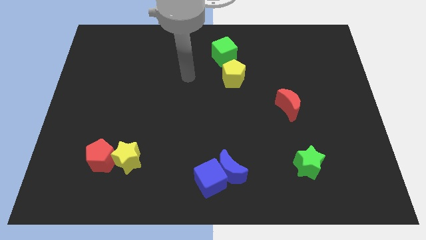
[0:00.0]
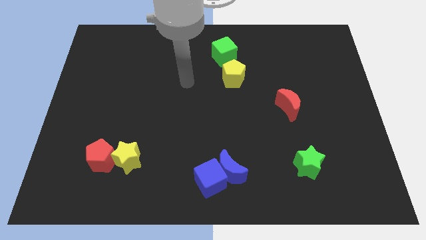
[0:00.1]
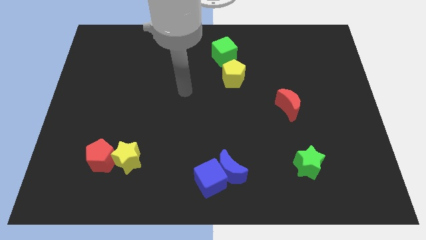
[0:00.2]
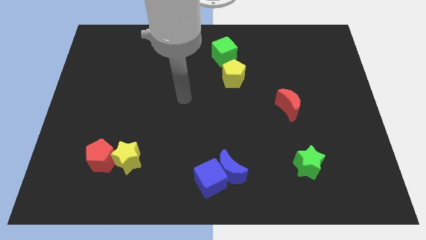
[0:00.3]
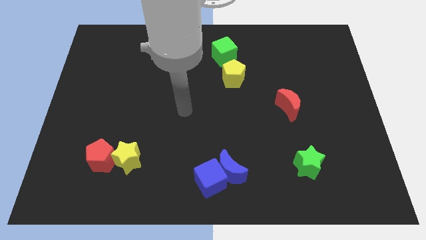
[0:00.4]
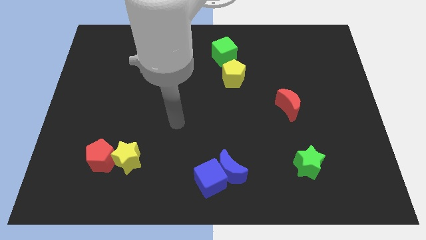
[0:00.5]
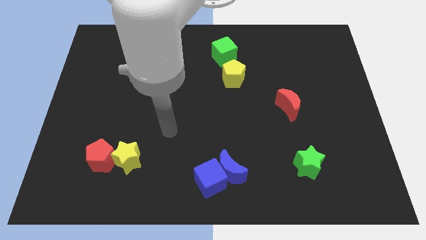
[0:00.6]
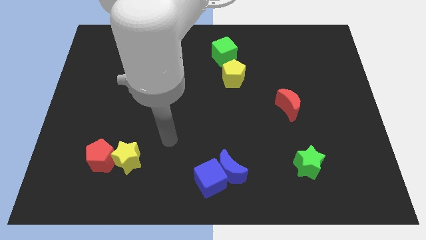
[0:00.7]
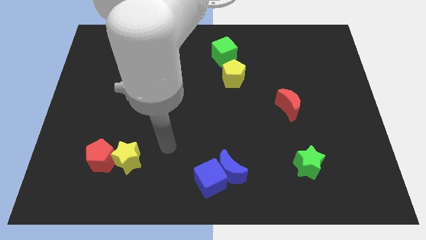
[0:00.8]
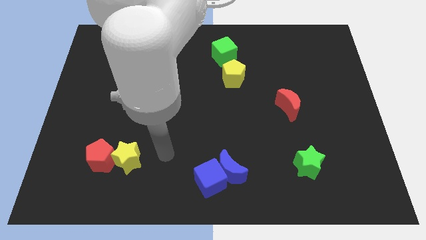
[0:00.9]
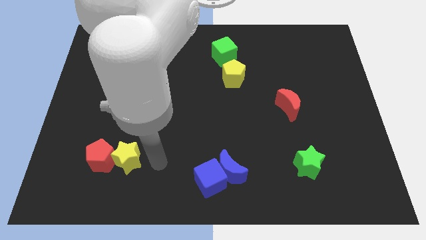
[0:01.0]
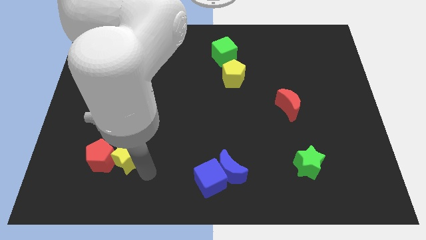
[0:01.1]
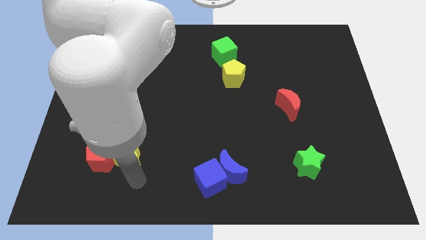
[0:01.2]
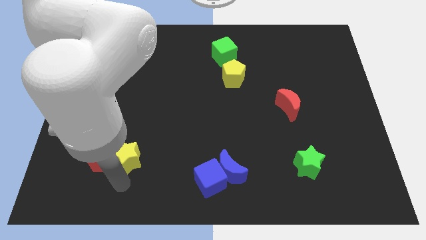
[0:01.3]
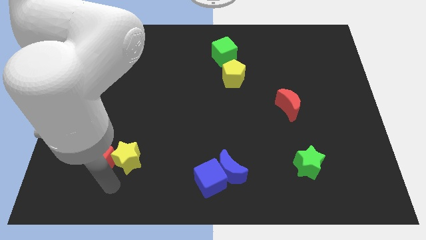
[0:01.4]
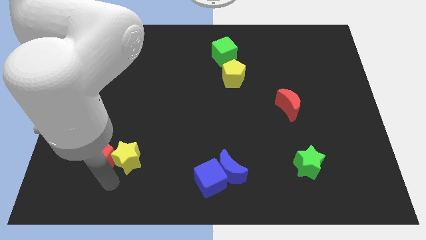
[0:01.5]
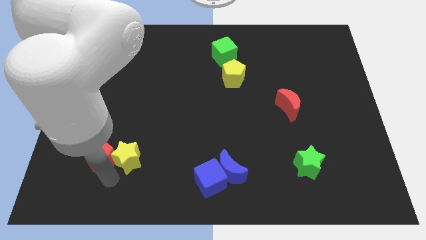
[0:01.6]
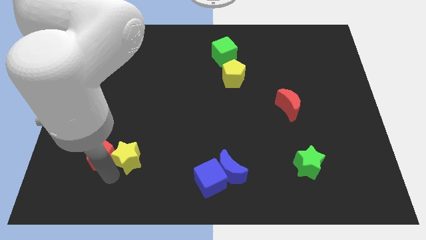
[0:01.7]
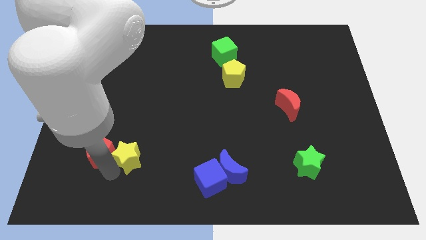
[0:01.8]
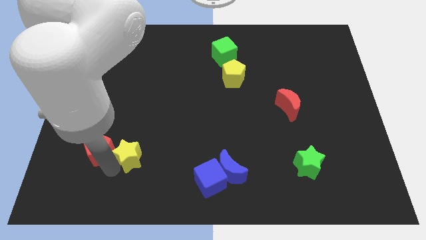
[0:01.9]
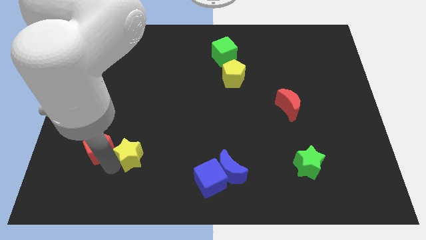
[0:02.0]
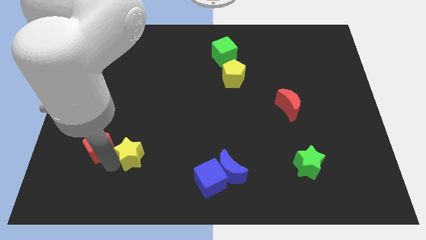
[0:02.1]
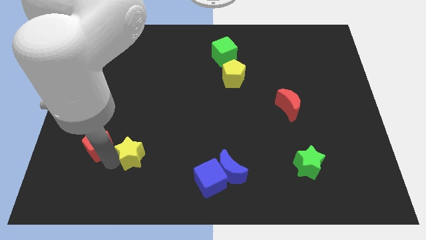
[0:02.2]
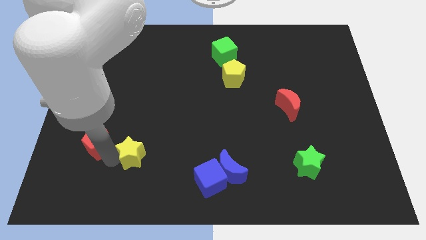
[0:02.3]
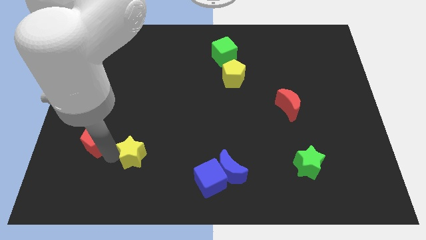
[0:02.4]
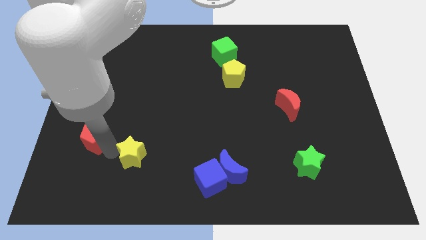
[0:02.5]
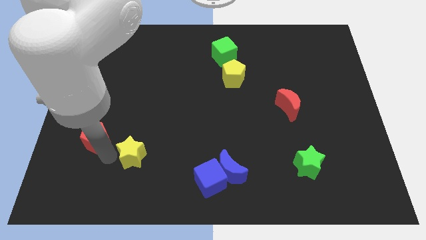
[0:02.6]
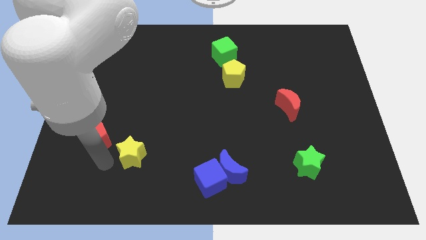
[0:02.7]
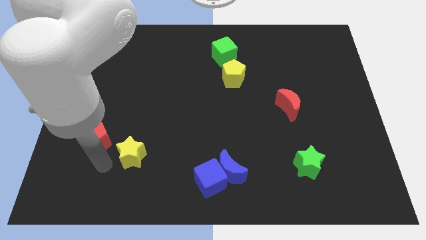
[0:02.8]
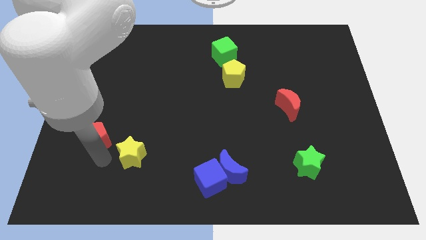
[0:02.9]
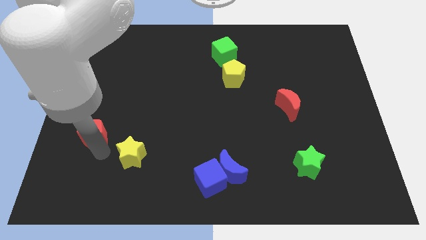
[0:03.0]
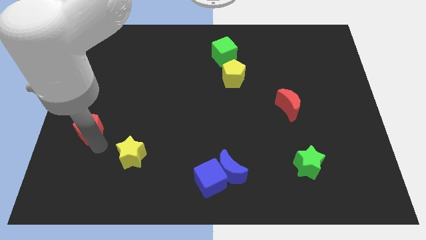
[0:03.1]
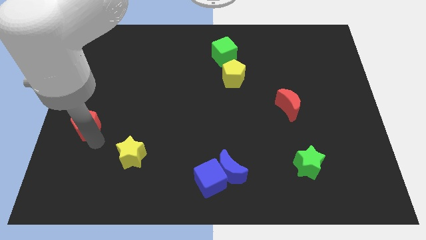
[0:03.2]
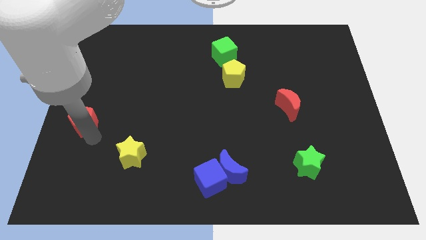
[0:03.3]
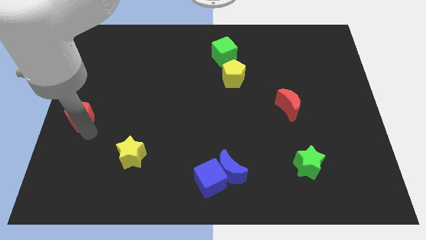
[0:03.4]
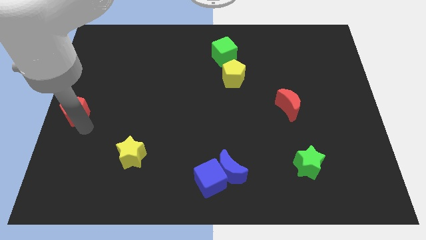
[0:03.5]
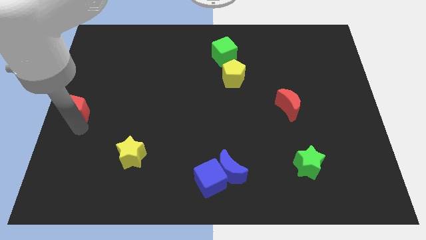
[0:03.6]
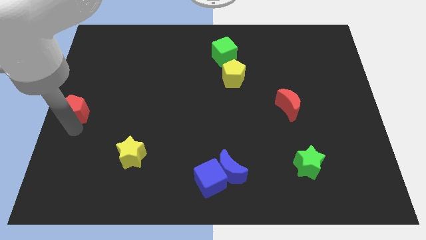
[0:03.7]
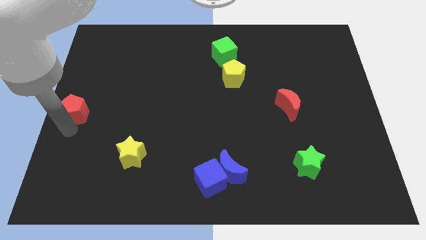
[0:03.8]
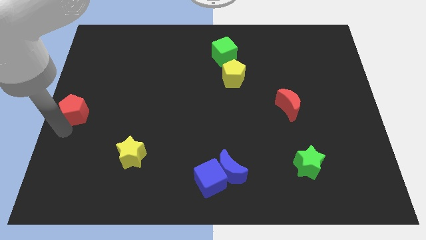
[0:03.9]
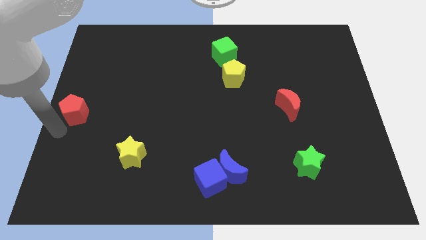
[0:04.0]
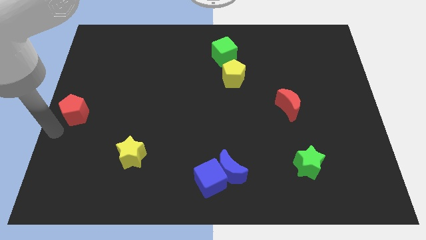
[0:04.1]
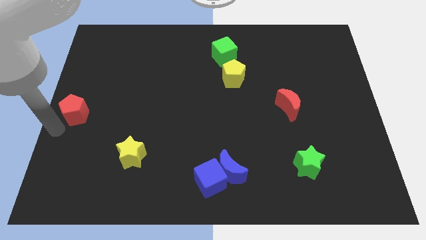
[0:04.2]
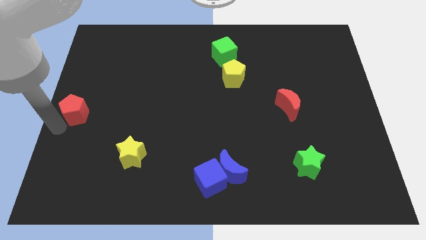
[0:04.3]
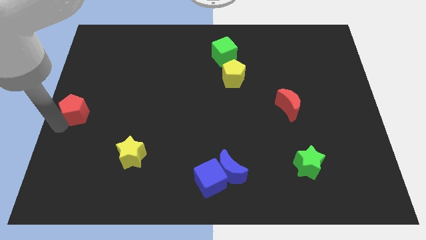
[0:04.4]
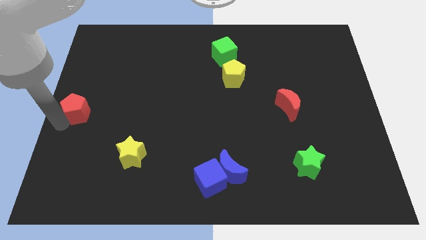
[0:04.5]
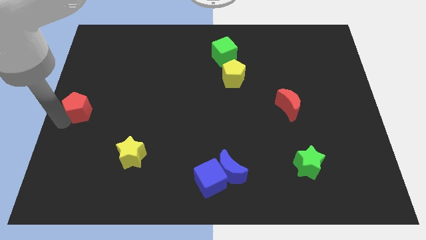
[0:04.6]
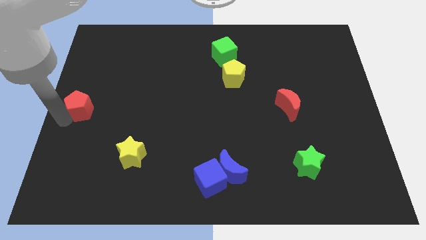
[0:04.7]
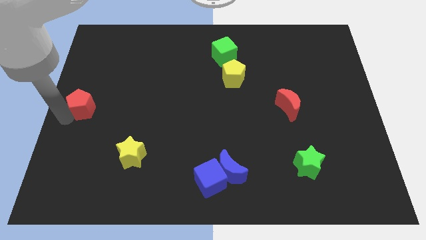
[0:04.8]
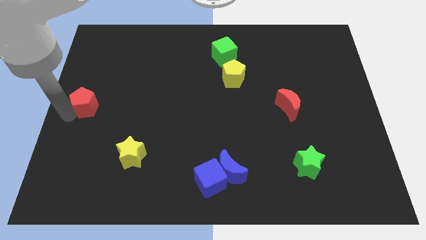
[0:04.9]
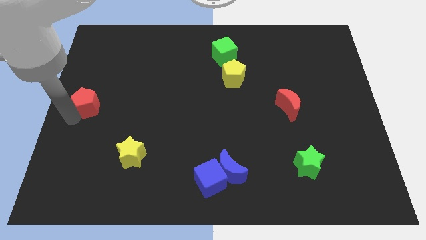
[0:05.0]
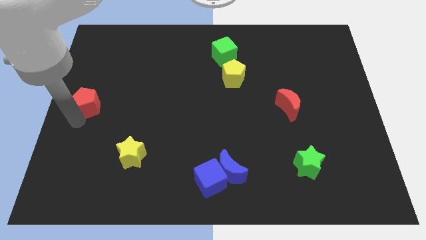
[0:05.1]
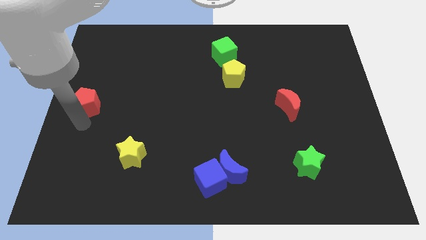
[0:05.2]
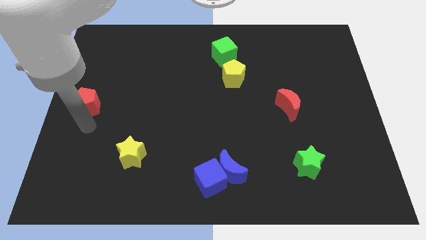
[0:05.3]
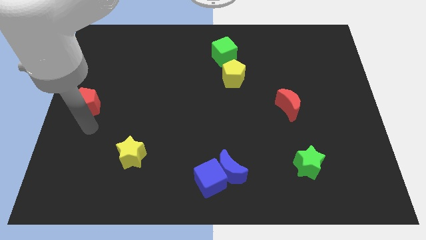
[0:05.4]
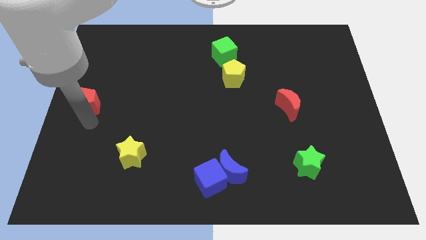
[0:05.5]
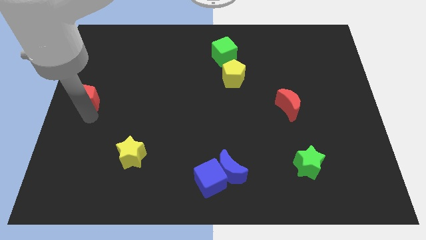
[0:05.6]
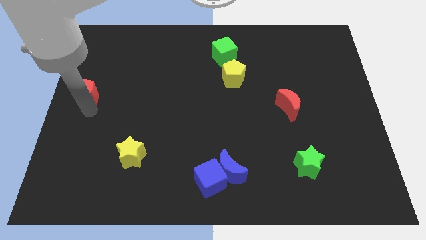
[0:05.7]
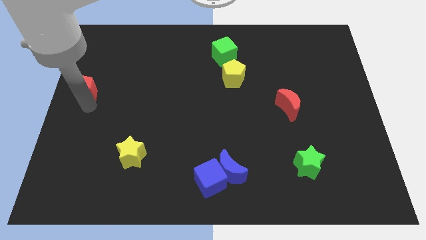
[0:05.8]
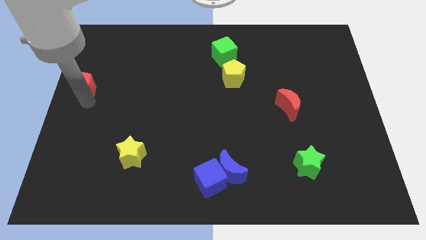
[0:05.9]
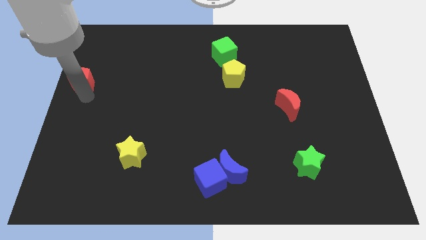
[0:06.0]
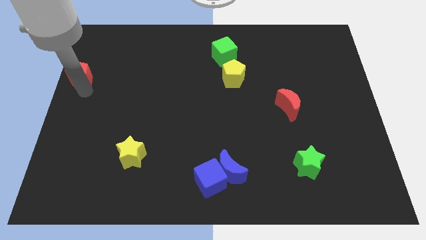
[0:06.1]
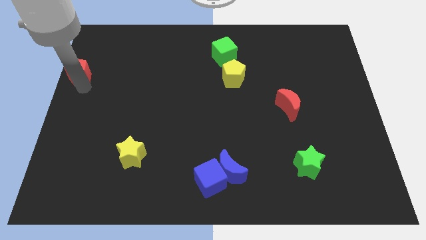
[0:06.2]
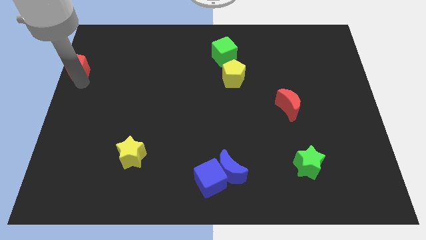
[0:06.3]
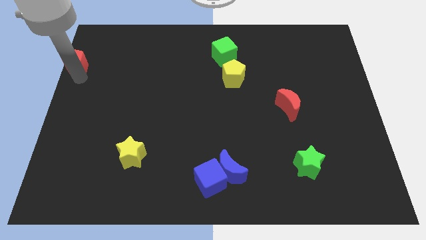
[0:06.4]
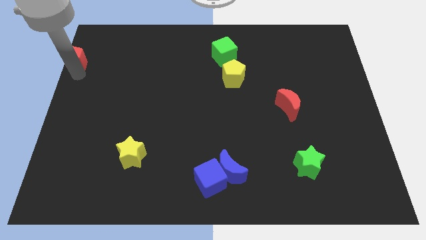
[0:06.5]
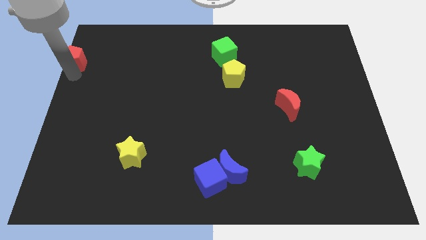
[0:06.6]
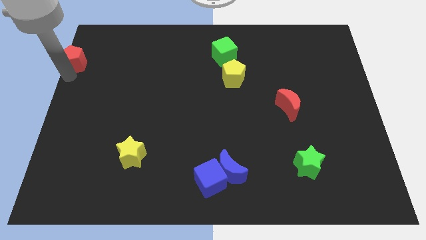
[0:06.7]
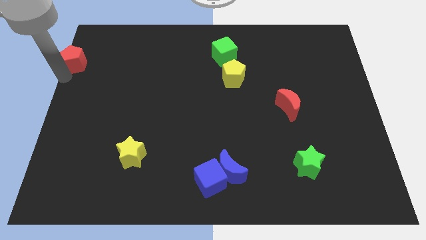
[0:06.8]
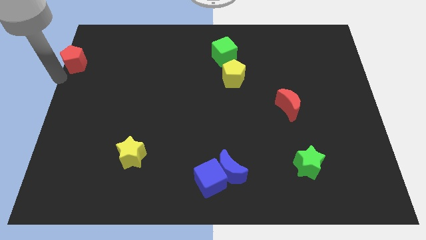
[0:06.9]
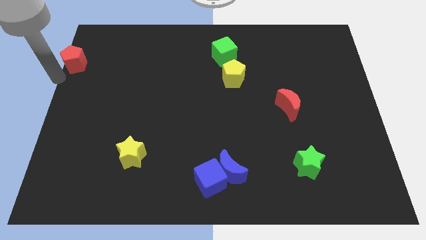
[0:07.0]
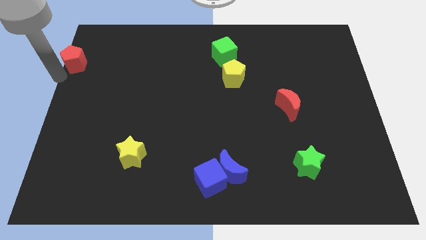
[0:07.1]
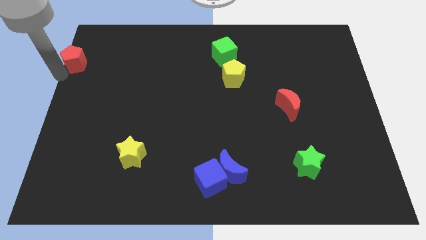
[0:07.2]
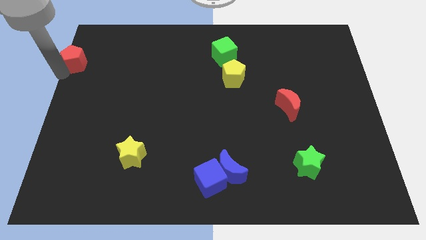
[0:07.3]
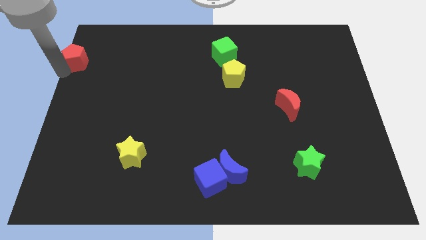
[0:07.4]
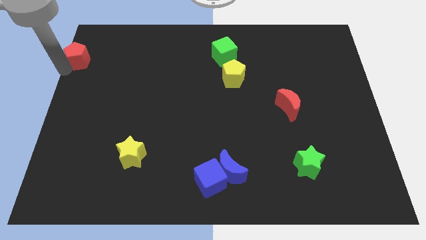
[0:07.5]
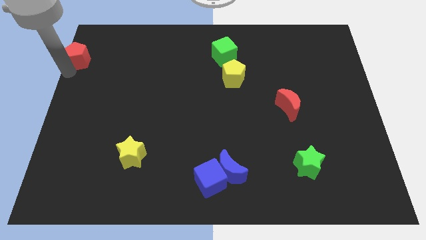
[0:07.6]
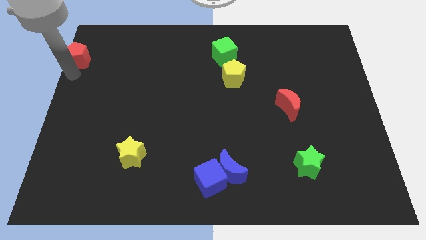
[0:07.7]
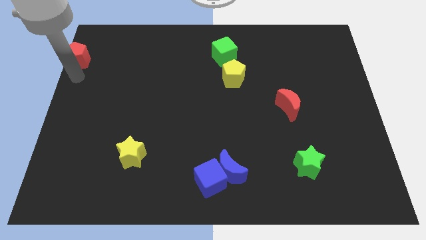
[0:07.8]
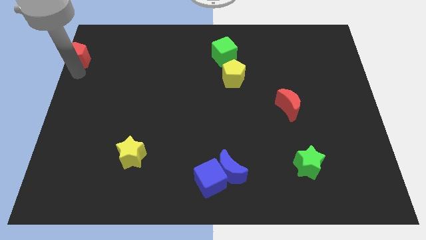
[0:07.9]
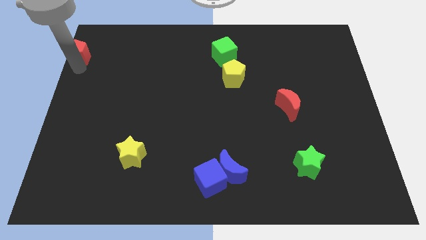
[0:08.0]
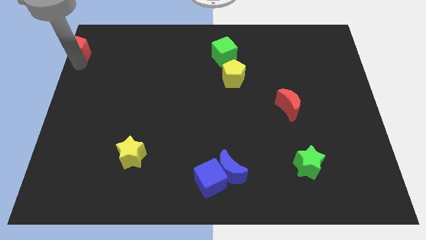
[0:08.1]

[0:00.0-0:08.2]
move the red pentagon to the top left corner
